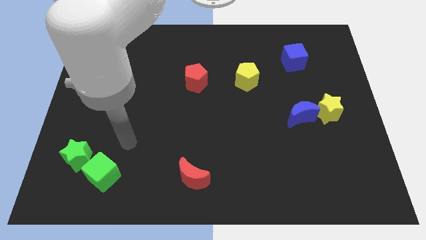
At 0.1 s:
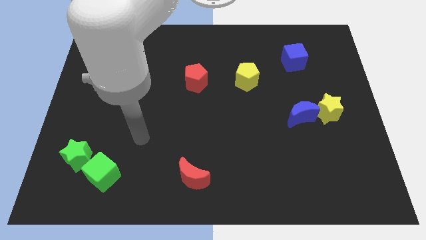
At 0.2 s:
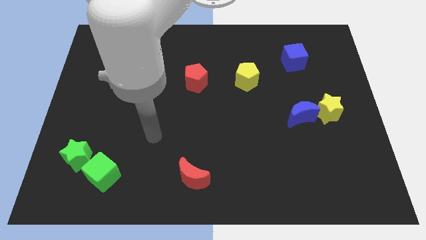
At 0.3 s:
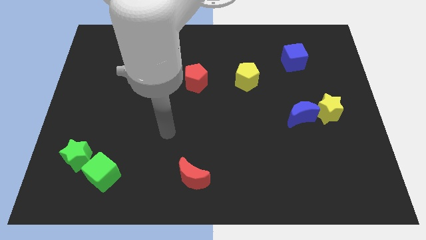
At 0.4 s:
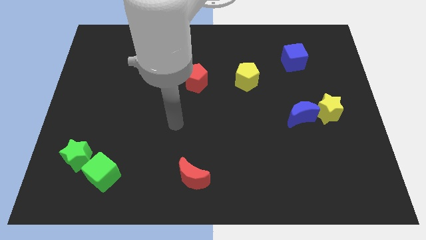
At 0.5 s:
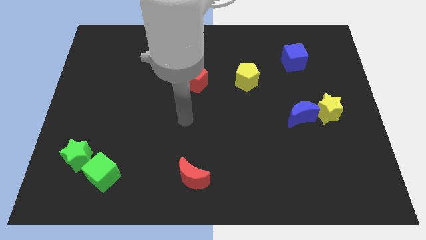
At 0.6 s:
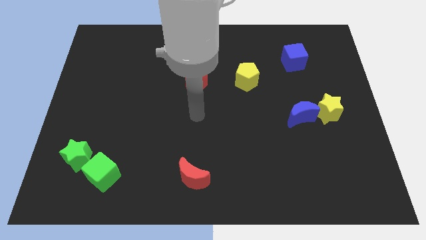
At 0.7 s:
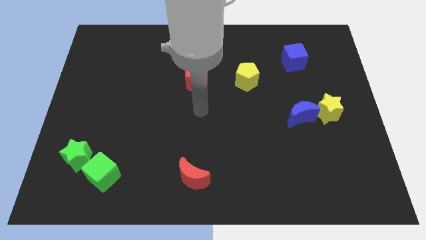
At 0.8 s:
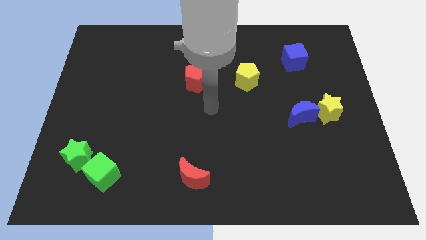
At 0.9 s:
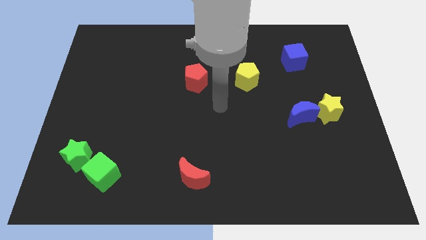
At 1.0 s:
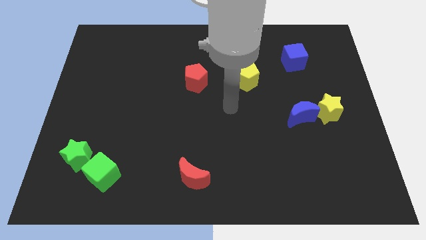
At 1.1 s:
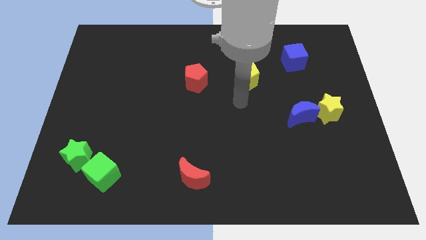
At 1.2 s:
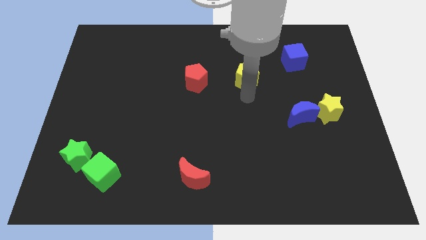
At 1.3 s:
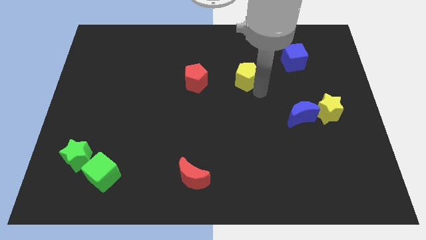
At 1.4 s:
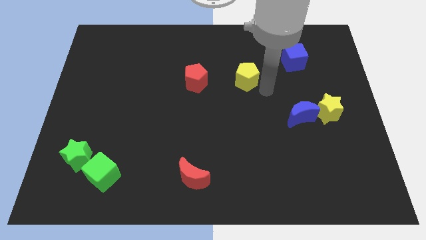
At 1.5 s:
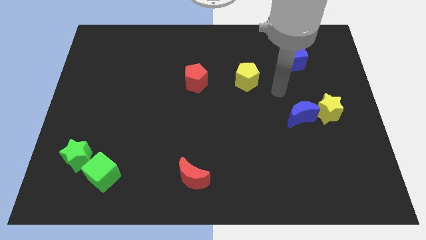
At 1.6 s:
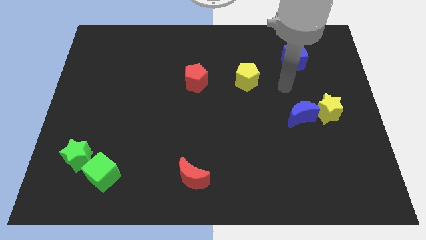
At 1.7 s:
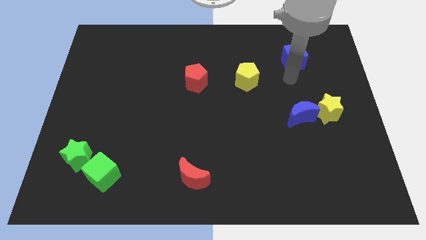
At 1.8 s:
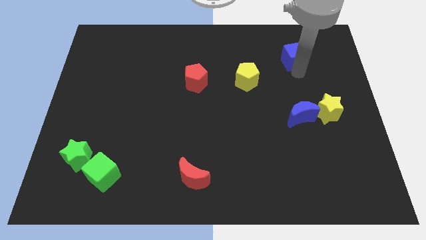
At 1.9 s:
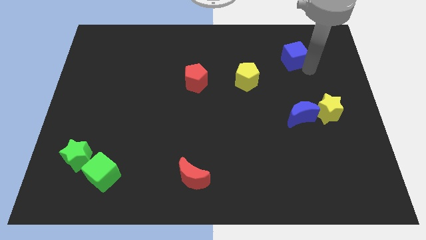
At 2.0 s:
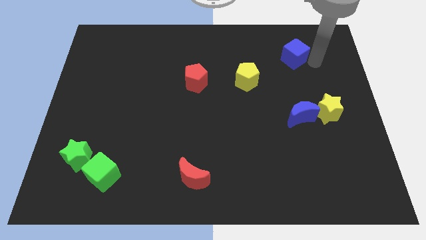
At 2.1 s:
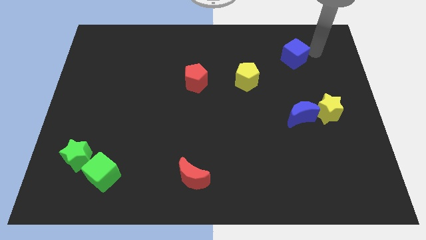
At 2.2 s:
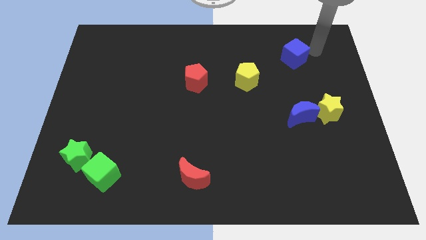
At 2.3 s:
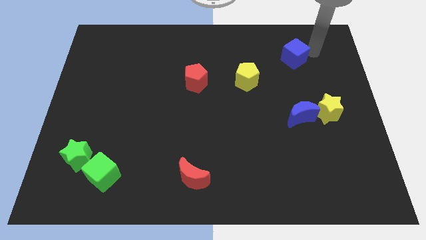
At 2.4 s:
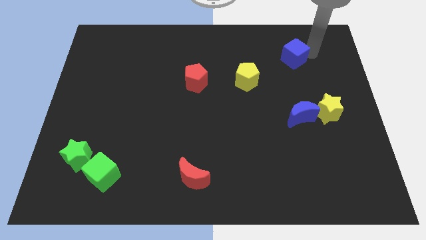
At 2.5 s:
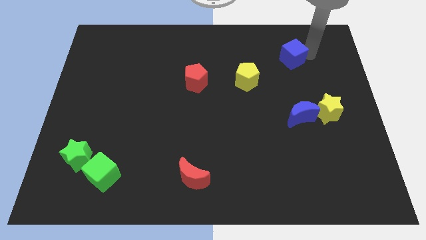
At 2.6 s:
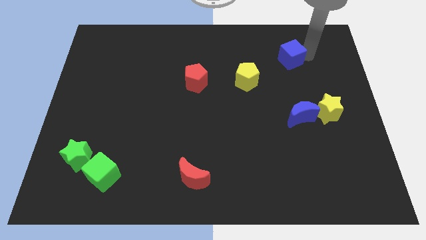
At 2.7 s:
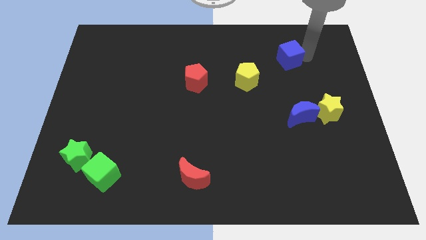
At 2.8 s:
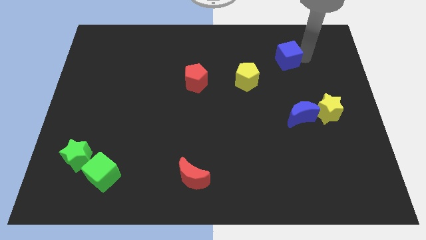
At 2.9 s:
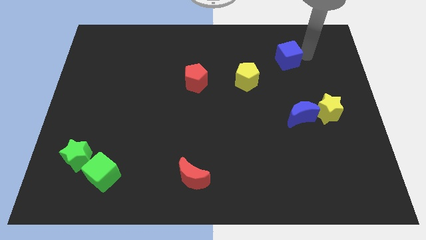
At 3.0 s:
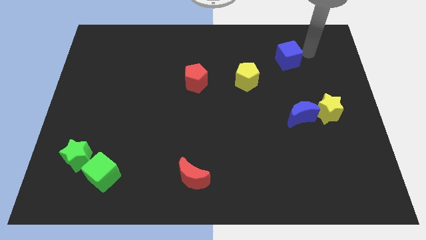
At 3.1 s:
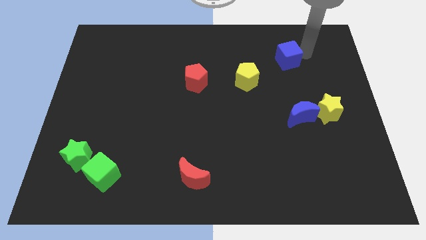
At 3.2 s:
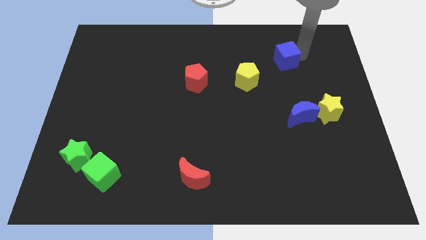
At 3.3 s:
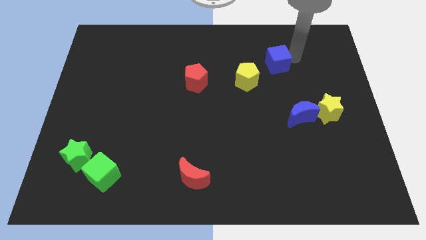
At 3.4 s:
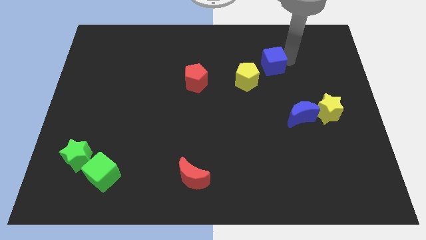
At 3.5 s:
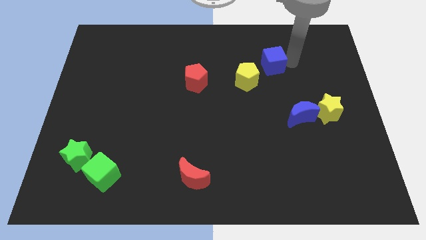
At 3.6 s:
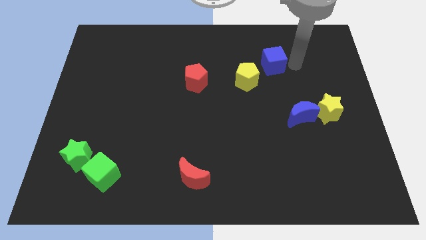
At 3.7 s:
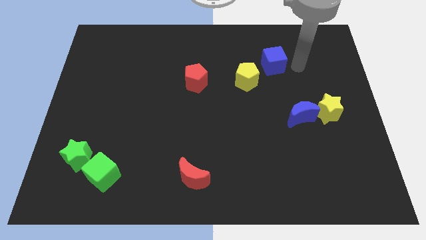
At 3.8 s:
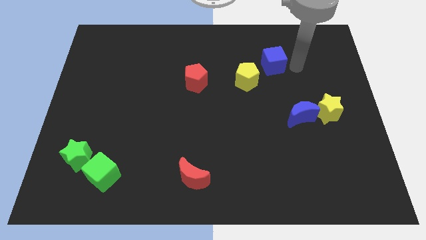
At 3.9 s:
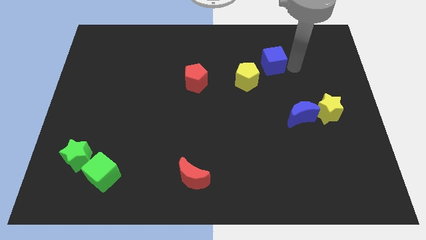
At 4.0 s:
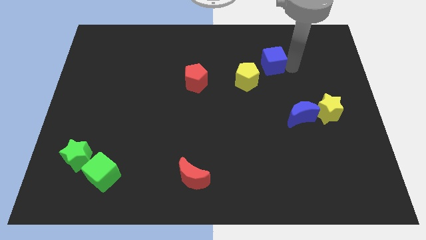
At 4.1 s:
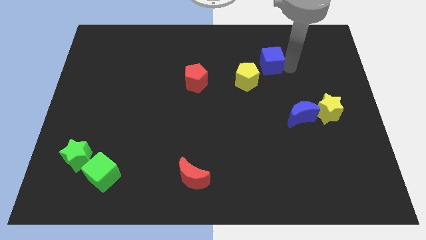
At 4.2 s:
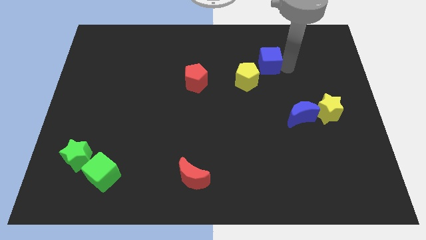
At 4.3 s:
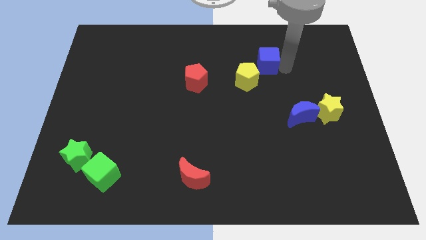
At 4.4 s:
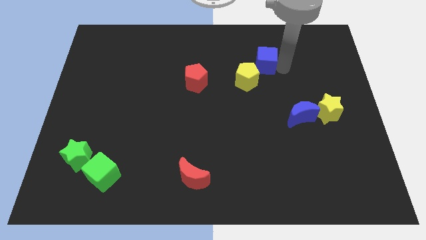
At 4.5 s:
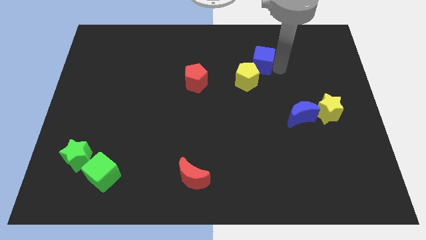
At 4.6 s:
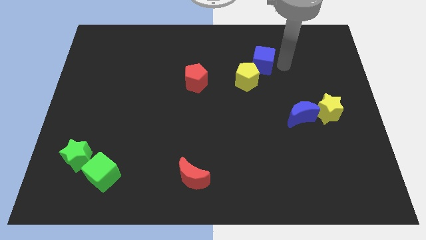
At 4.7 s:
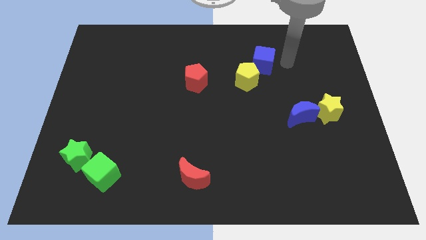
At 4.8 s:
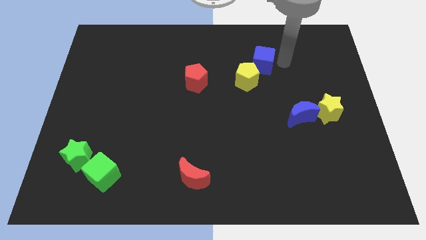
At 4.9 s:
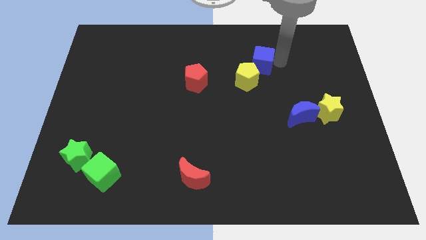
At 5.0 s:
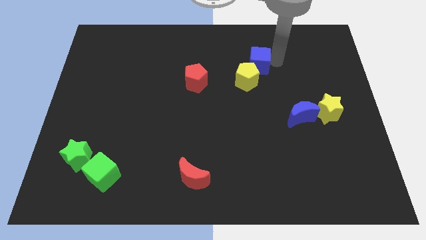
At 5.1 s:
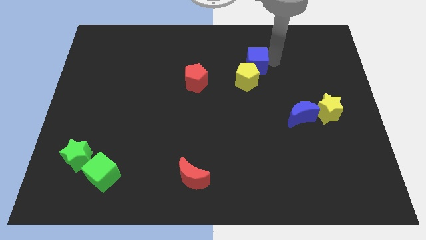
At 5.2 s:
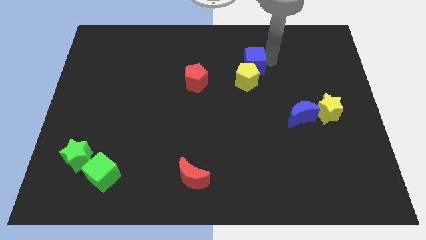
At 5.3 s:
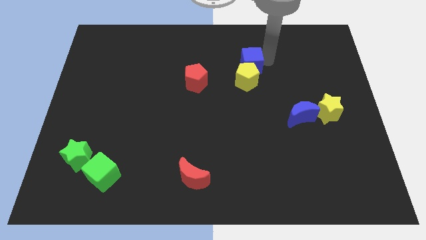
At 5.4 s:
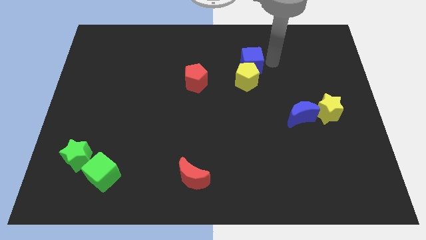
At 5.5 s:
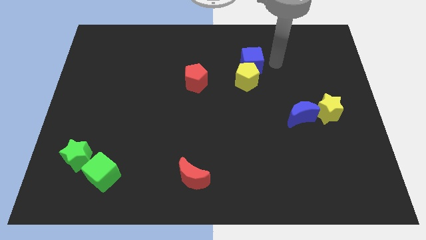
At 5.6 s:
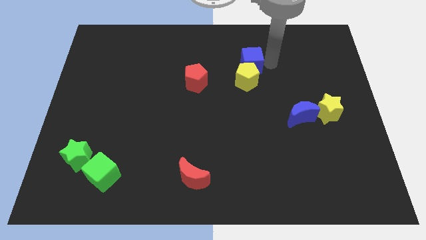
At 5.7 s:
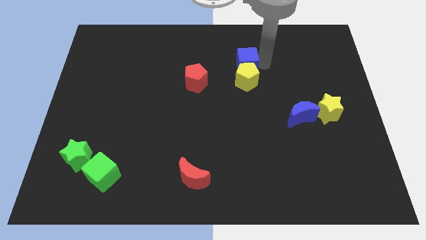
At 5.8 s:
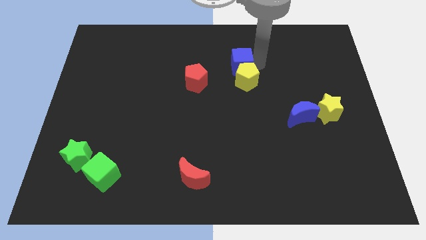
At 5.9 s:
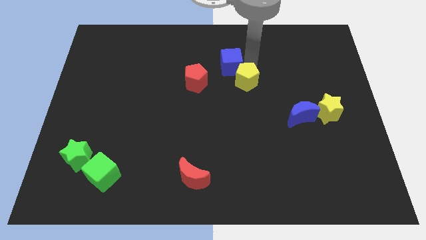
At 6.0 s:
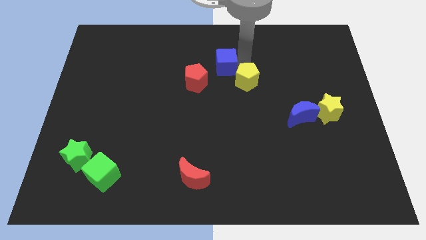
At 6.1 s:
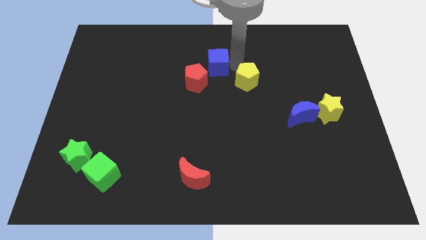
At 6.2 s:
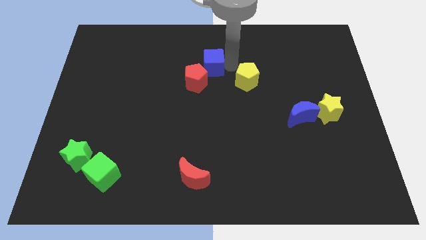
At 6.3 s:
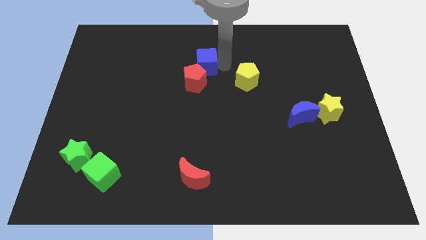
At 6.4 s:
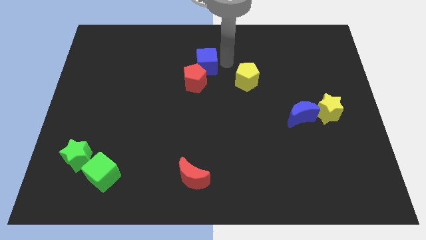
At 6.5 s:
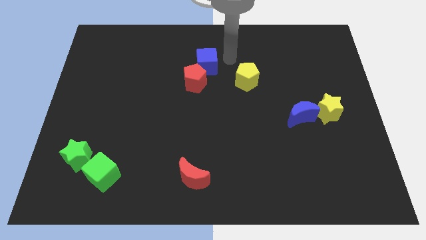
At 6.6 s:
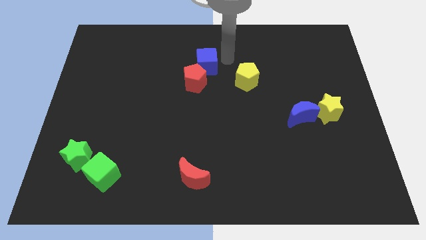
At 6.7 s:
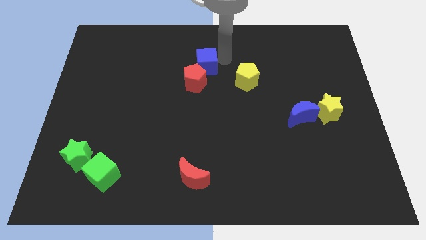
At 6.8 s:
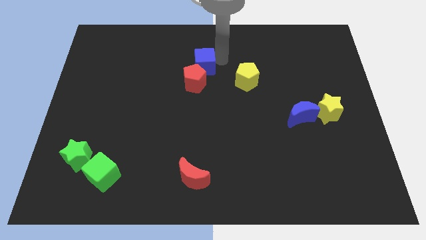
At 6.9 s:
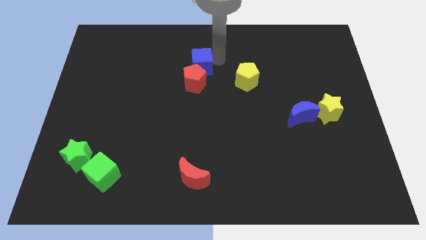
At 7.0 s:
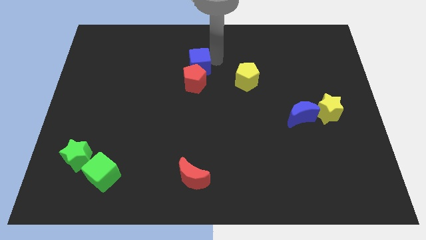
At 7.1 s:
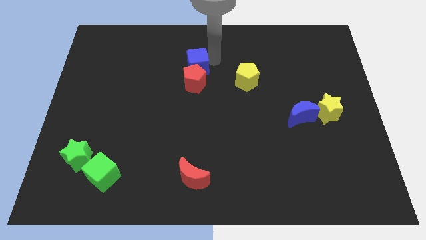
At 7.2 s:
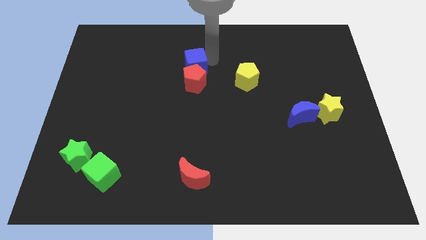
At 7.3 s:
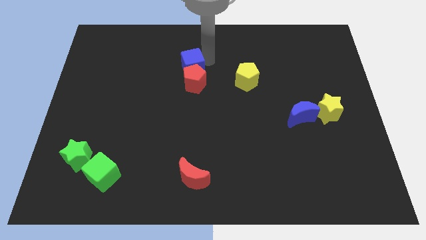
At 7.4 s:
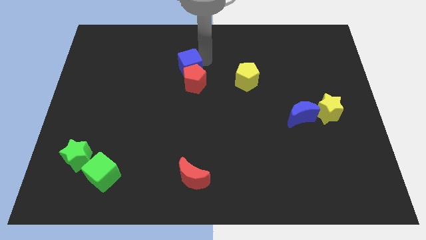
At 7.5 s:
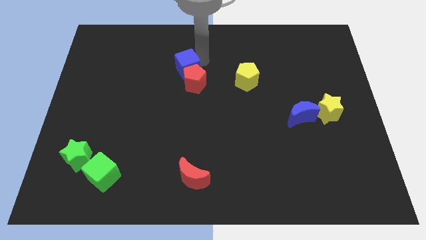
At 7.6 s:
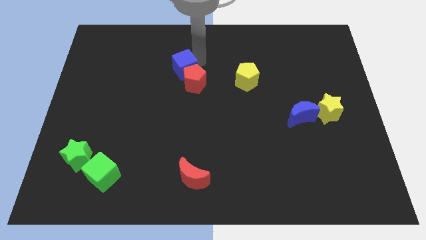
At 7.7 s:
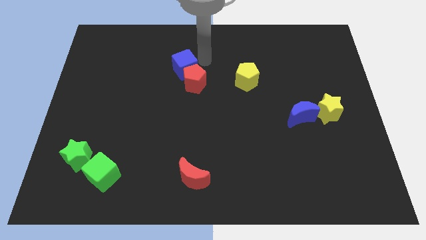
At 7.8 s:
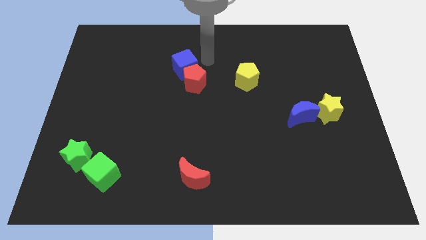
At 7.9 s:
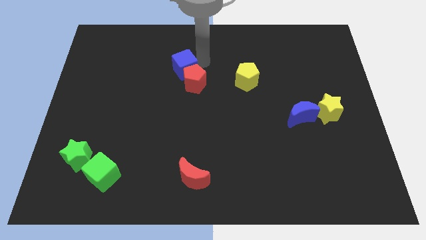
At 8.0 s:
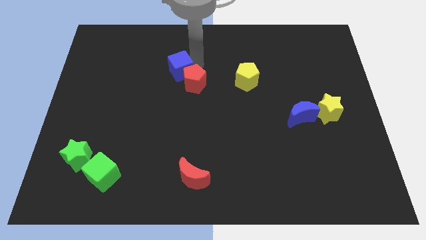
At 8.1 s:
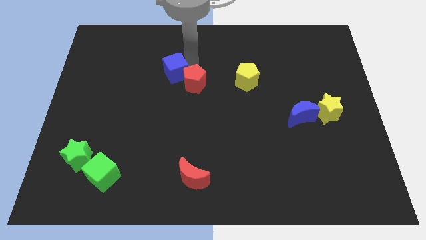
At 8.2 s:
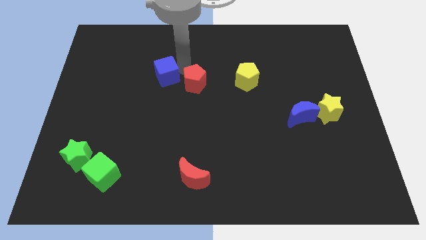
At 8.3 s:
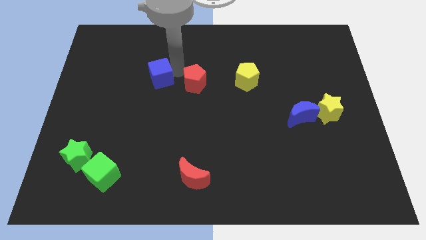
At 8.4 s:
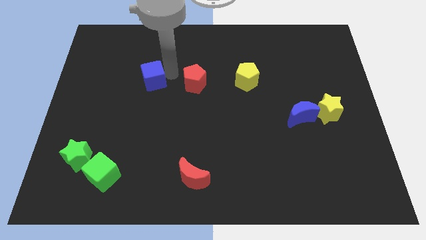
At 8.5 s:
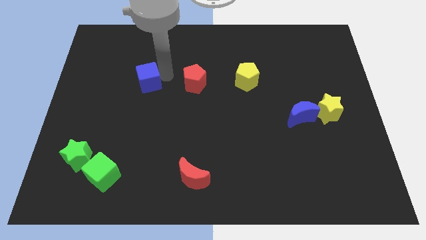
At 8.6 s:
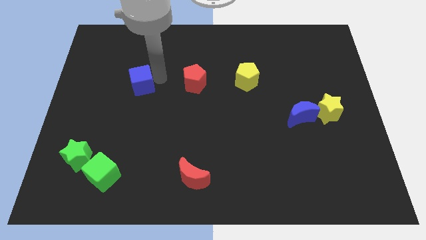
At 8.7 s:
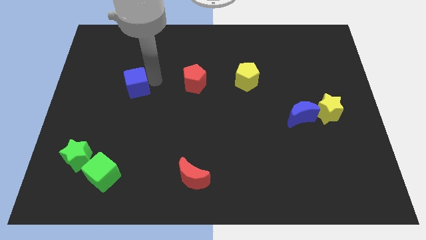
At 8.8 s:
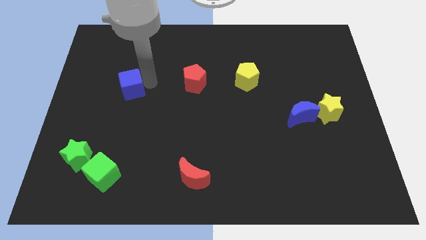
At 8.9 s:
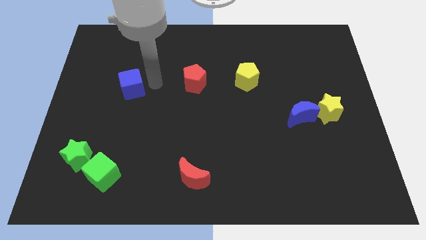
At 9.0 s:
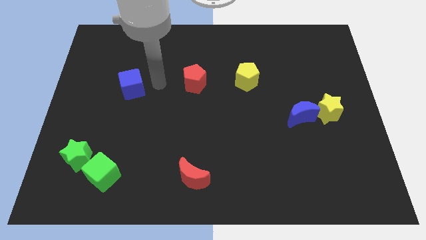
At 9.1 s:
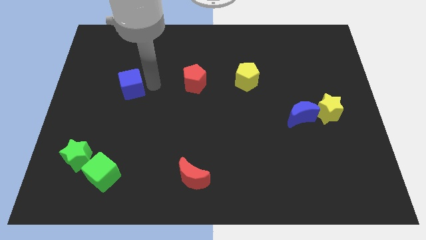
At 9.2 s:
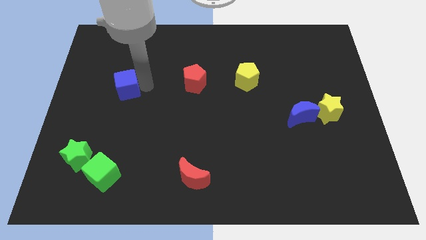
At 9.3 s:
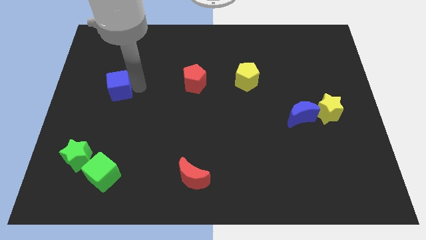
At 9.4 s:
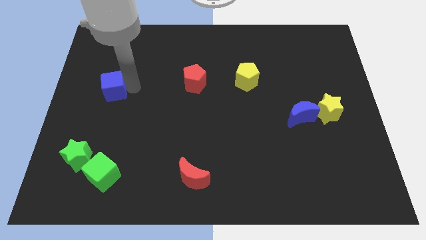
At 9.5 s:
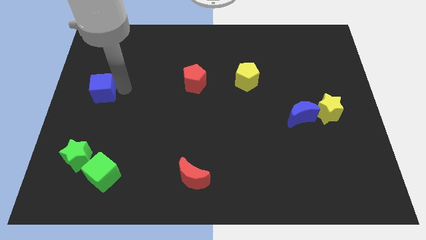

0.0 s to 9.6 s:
put the blue cube to the center left
